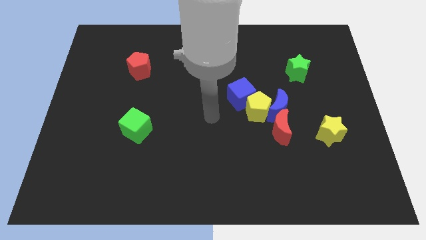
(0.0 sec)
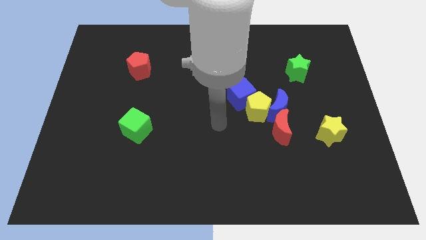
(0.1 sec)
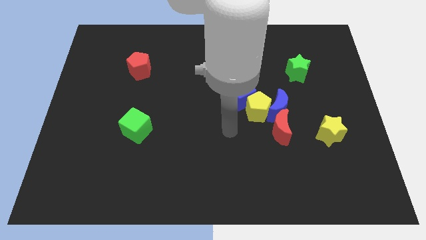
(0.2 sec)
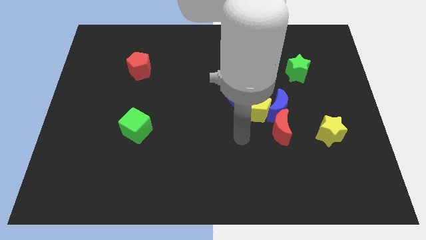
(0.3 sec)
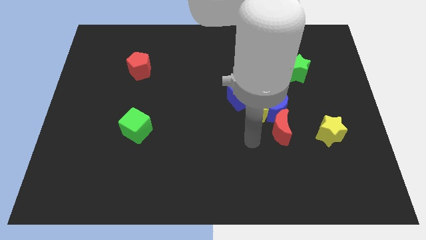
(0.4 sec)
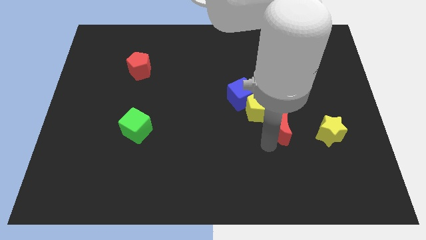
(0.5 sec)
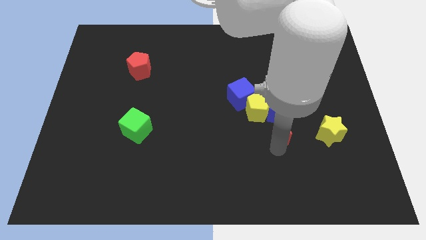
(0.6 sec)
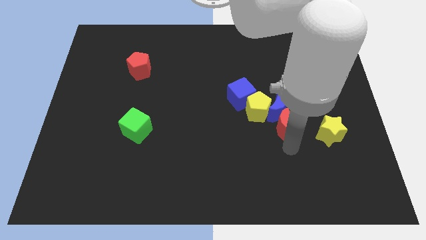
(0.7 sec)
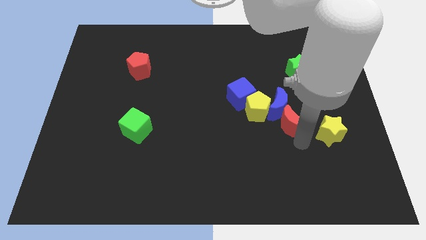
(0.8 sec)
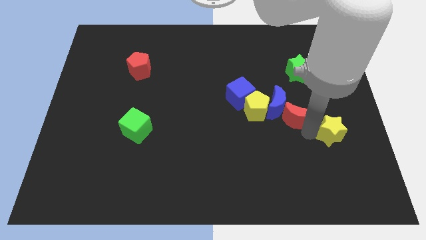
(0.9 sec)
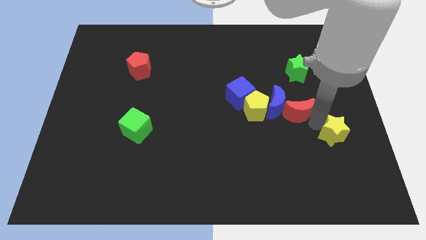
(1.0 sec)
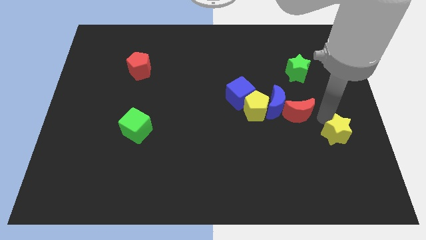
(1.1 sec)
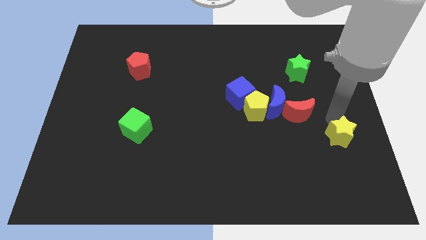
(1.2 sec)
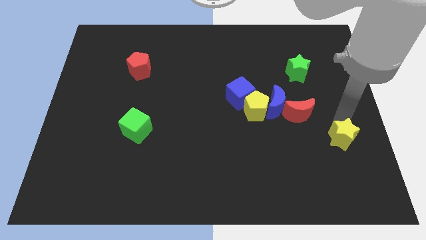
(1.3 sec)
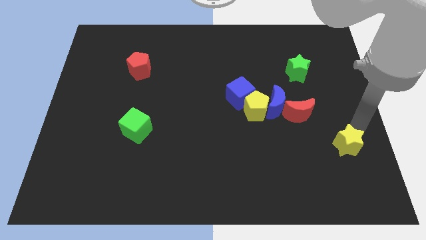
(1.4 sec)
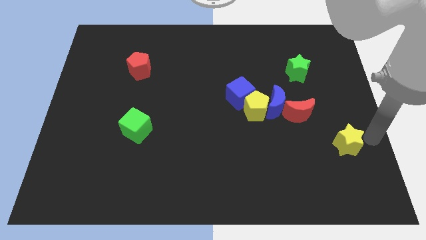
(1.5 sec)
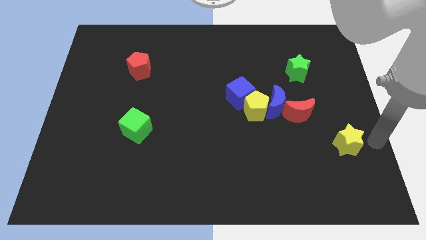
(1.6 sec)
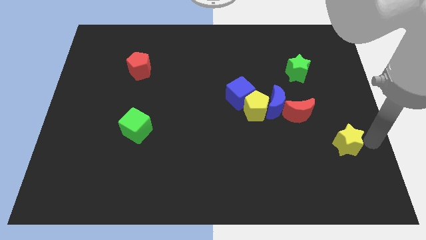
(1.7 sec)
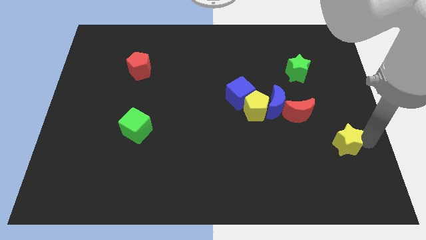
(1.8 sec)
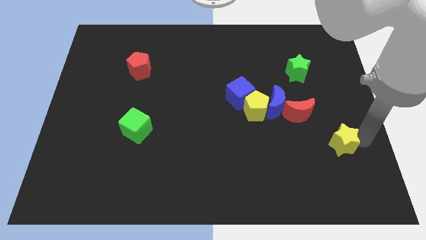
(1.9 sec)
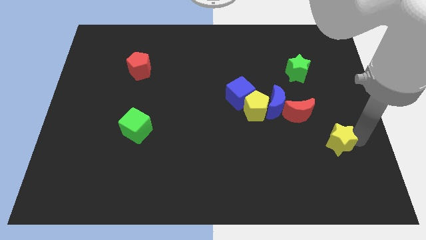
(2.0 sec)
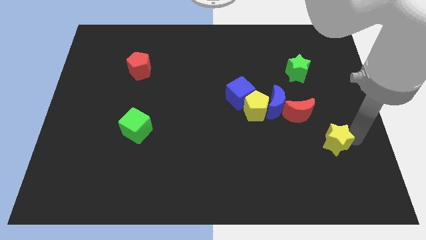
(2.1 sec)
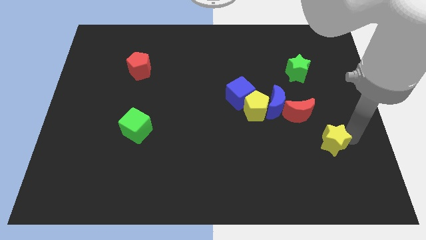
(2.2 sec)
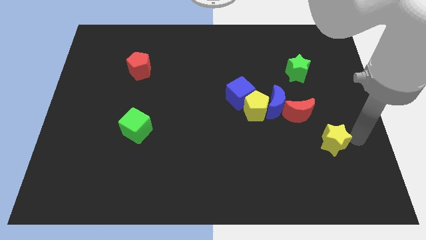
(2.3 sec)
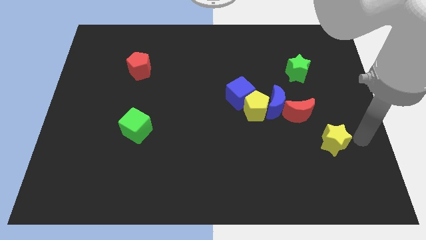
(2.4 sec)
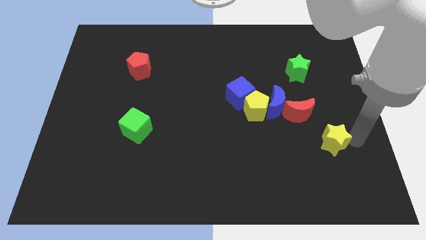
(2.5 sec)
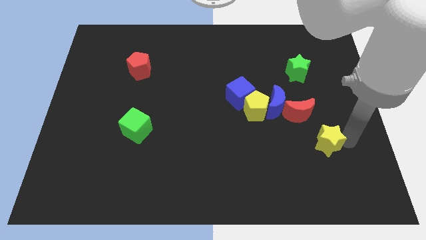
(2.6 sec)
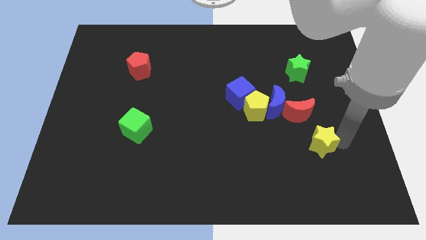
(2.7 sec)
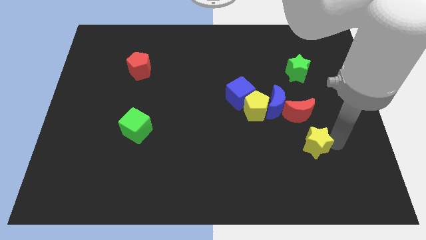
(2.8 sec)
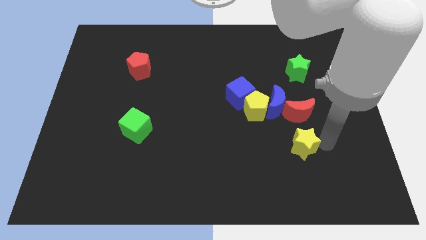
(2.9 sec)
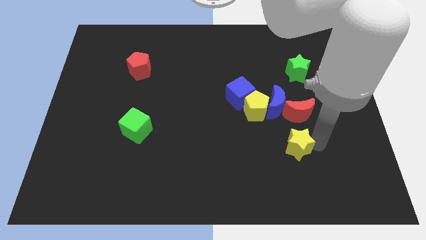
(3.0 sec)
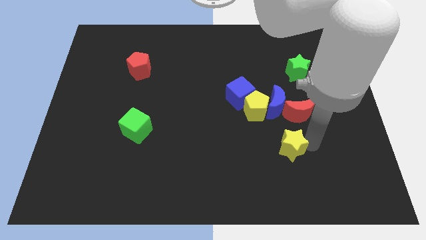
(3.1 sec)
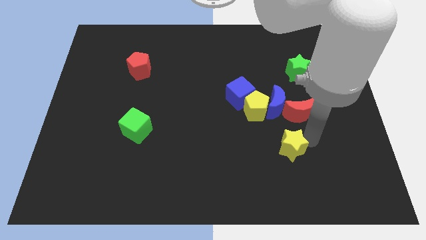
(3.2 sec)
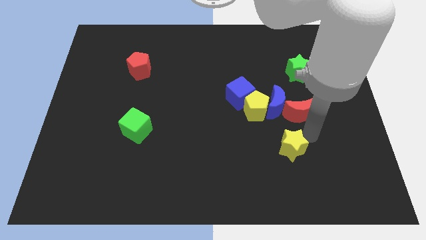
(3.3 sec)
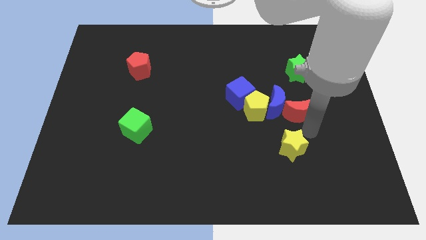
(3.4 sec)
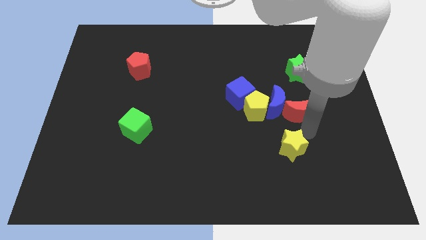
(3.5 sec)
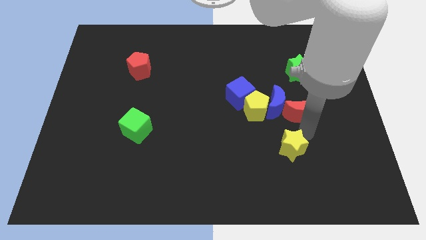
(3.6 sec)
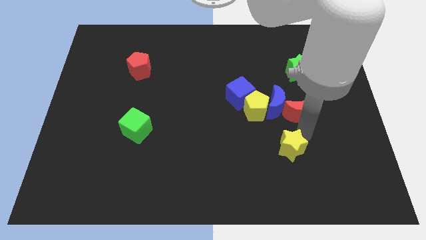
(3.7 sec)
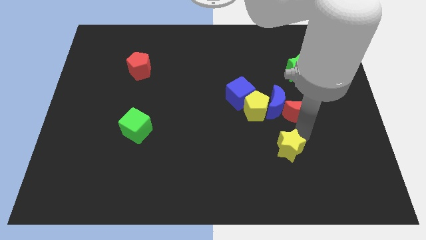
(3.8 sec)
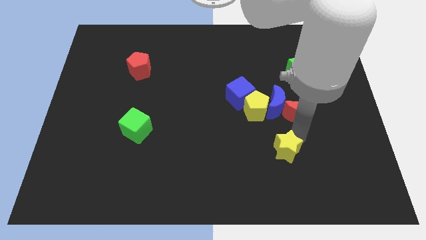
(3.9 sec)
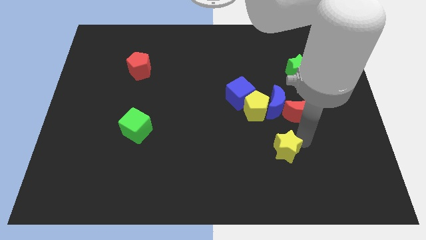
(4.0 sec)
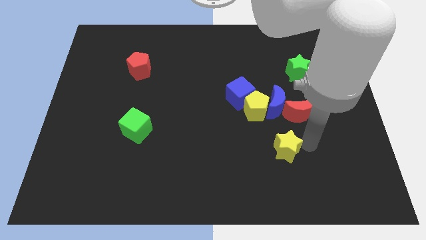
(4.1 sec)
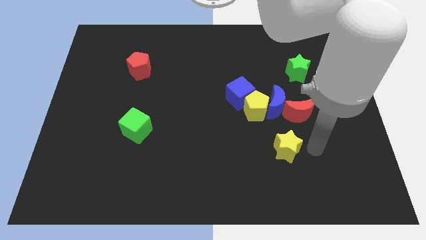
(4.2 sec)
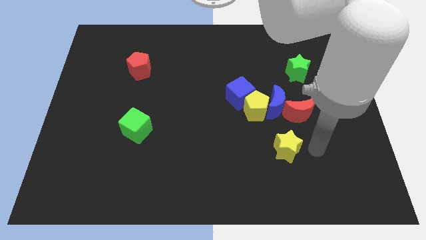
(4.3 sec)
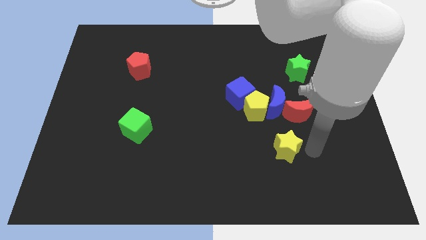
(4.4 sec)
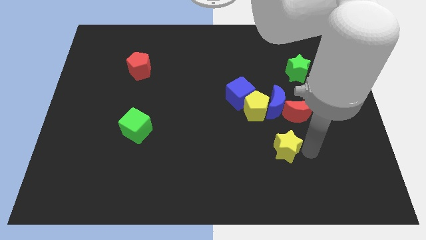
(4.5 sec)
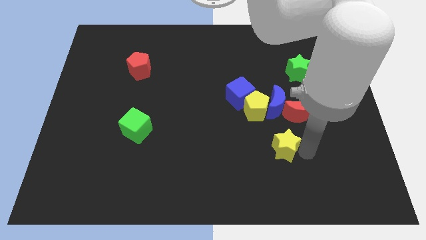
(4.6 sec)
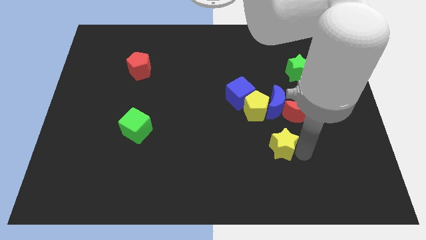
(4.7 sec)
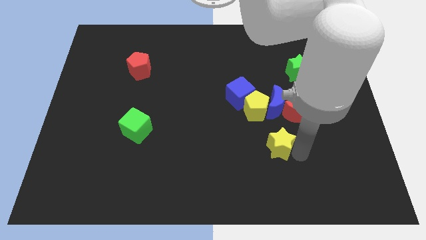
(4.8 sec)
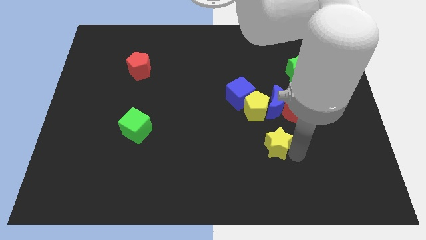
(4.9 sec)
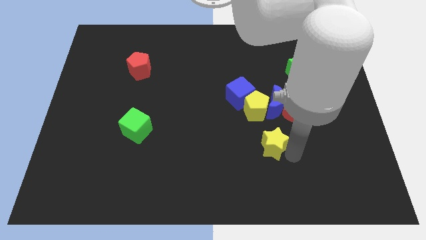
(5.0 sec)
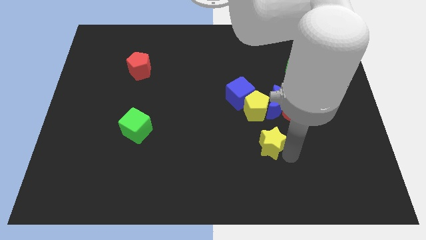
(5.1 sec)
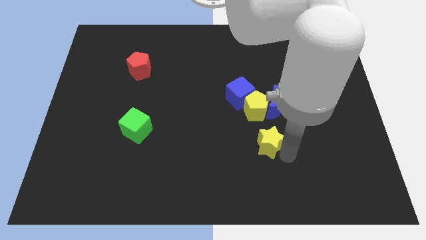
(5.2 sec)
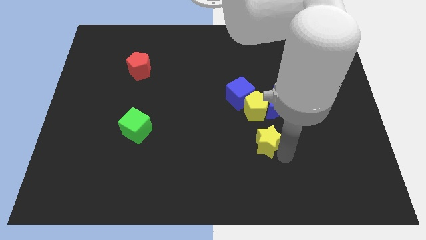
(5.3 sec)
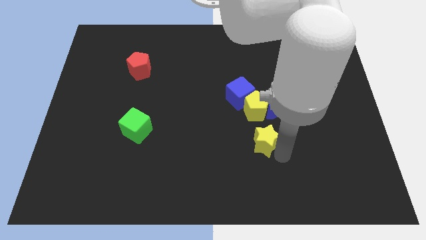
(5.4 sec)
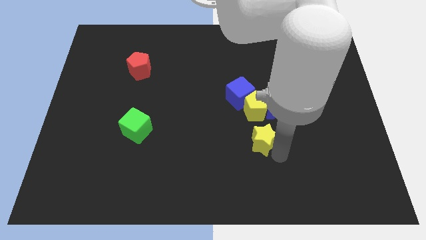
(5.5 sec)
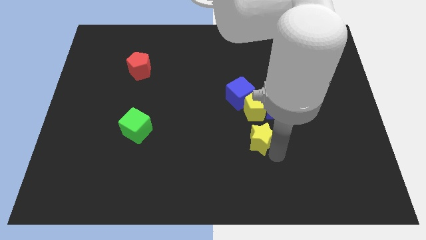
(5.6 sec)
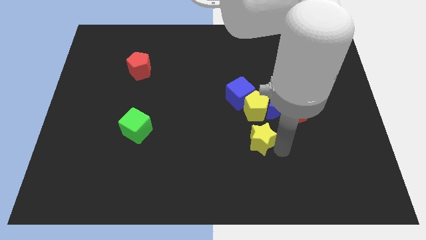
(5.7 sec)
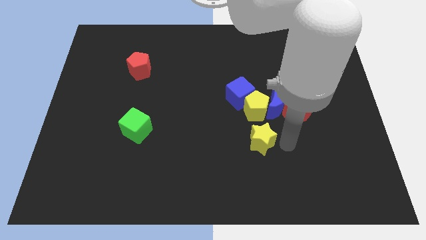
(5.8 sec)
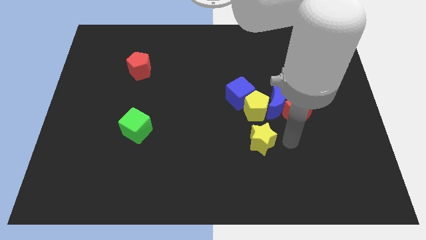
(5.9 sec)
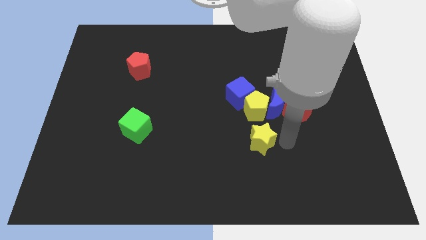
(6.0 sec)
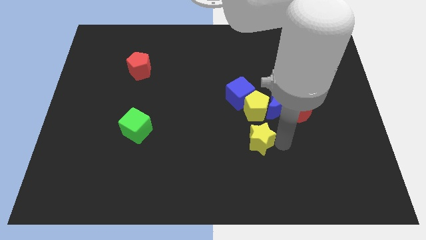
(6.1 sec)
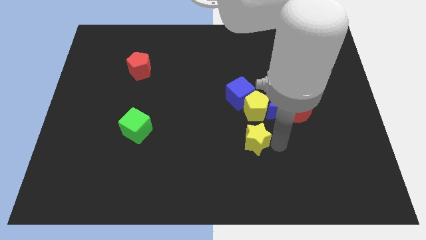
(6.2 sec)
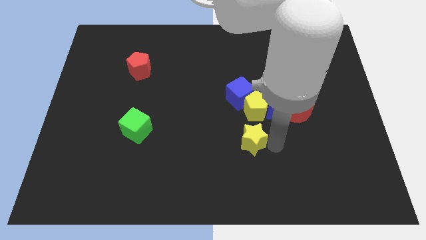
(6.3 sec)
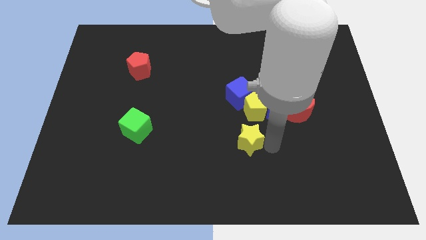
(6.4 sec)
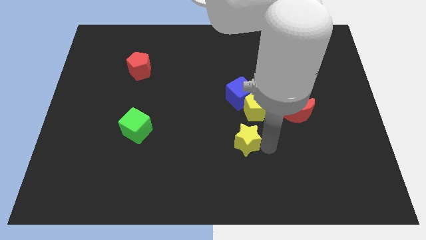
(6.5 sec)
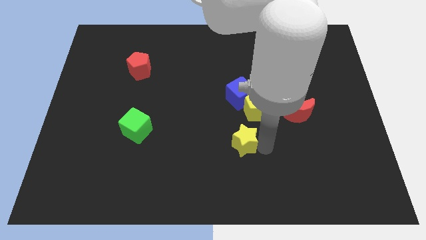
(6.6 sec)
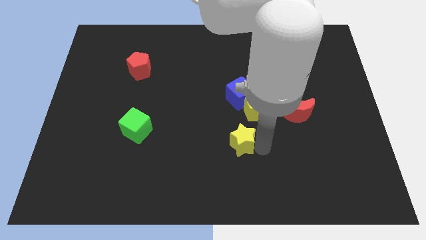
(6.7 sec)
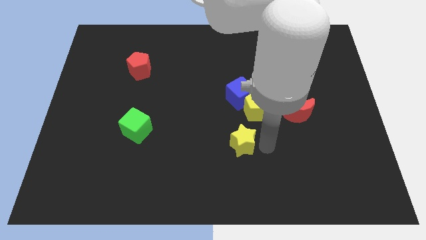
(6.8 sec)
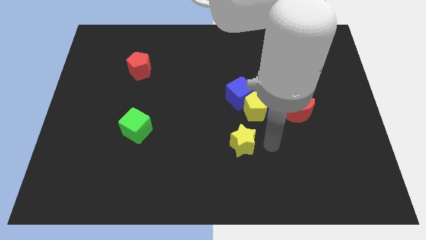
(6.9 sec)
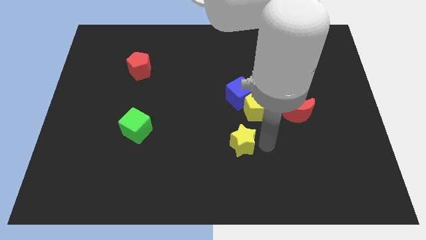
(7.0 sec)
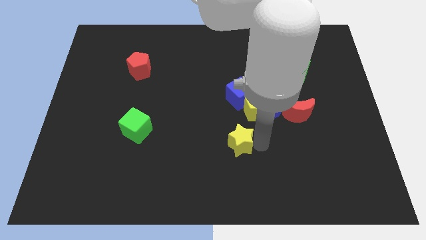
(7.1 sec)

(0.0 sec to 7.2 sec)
slide the yellow star to the left

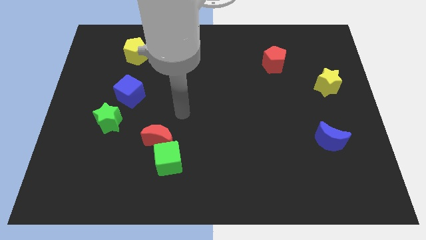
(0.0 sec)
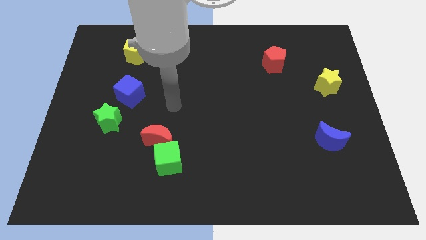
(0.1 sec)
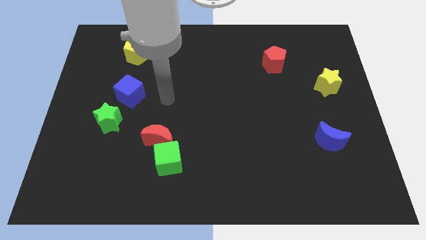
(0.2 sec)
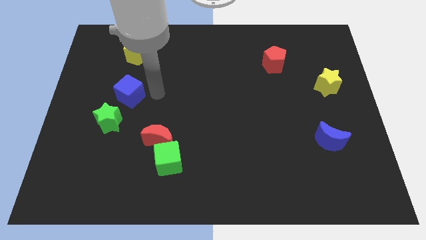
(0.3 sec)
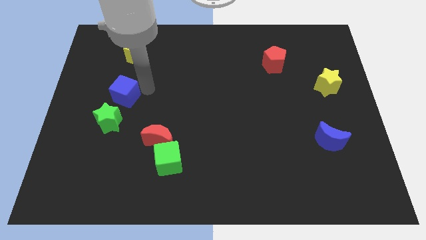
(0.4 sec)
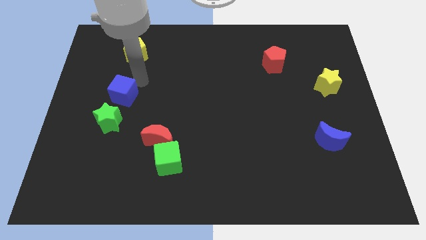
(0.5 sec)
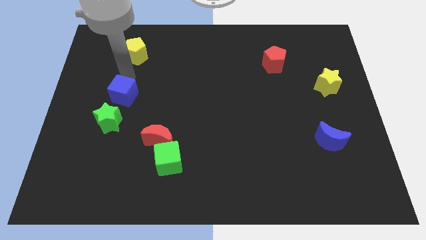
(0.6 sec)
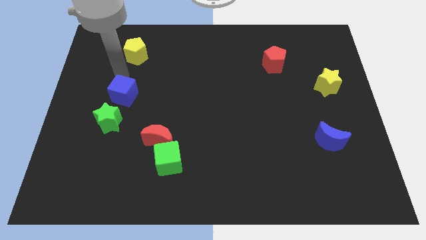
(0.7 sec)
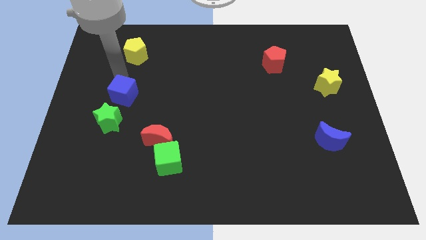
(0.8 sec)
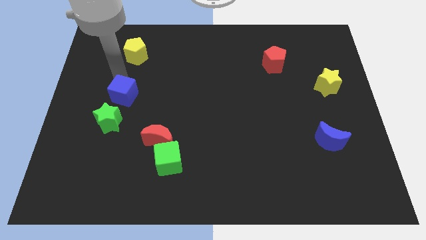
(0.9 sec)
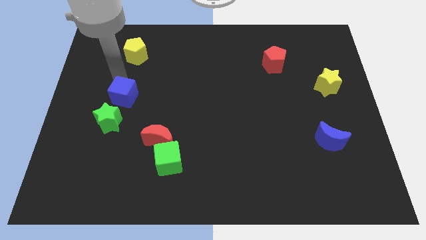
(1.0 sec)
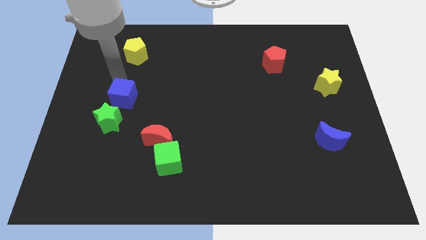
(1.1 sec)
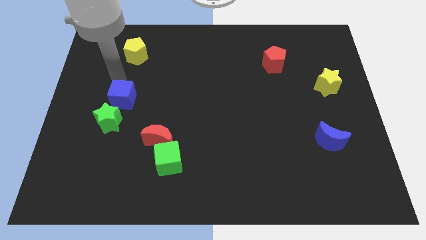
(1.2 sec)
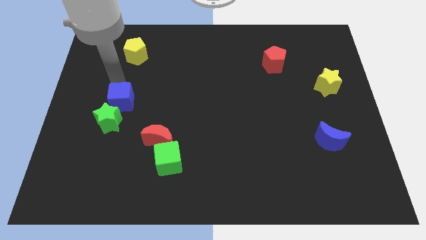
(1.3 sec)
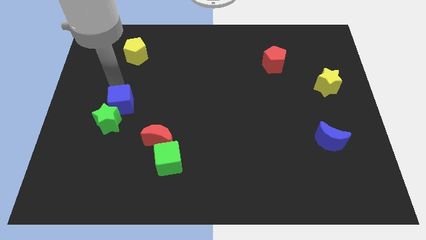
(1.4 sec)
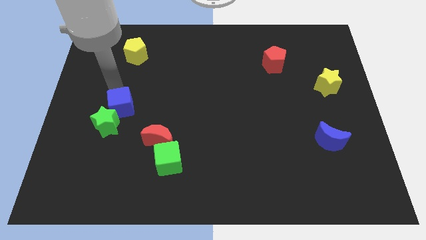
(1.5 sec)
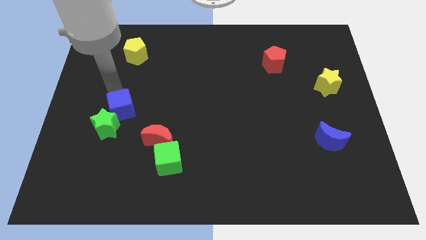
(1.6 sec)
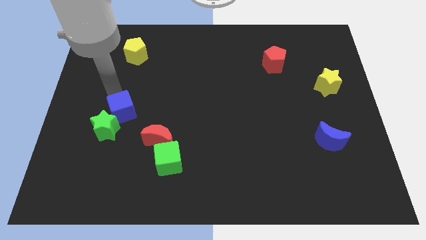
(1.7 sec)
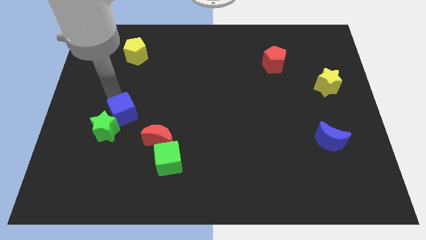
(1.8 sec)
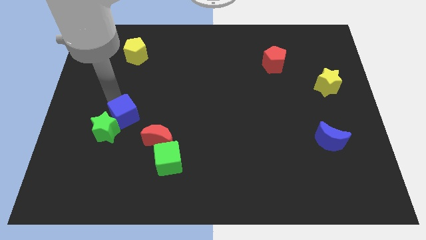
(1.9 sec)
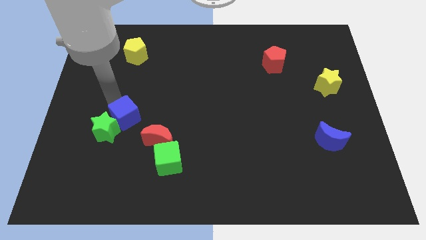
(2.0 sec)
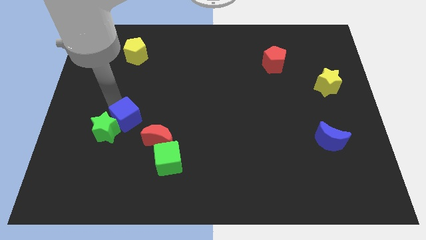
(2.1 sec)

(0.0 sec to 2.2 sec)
push the blue cube a bit downwards
